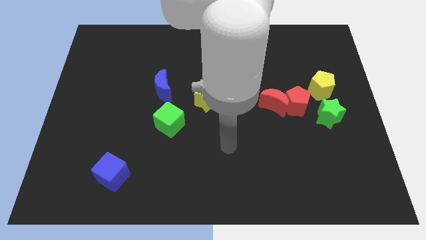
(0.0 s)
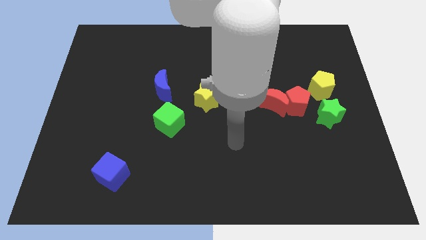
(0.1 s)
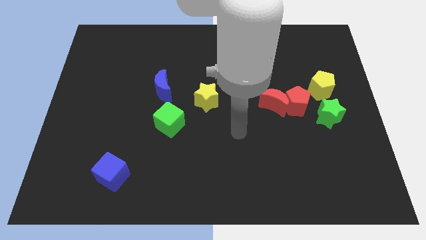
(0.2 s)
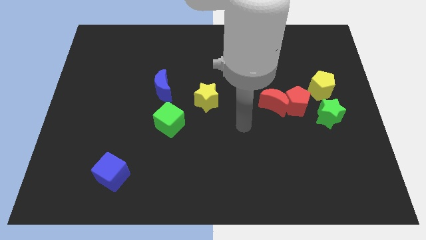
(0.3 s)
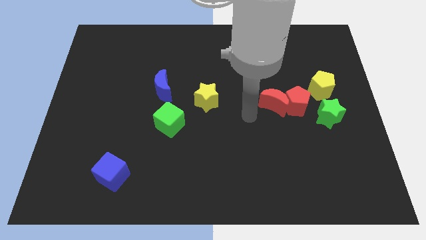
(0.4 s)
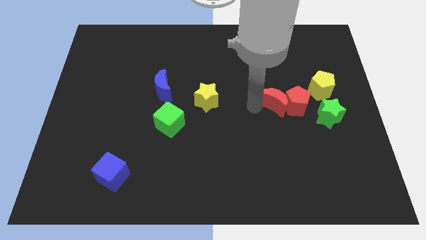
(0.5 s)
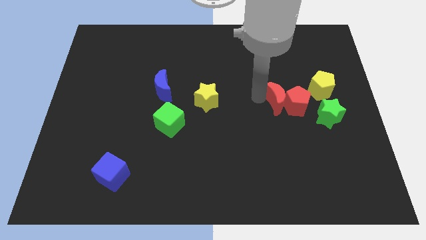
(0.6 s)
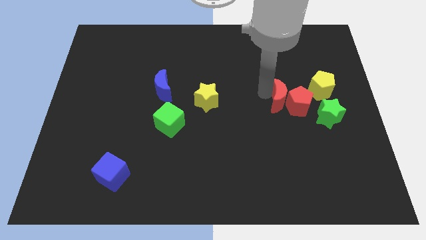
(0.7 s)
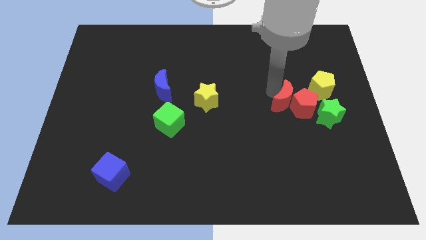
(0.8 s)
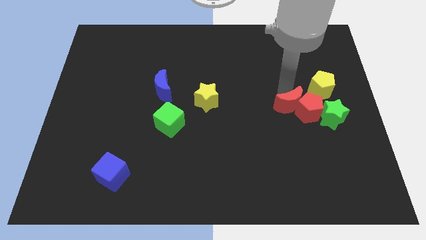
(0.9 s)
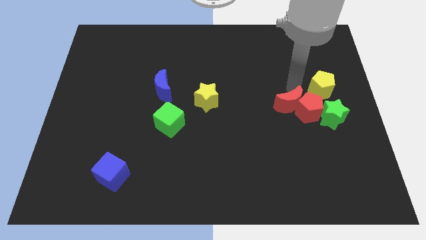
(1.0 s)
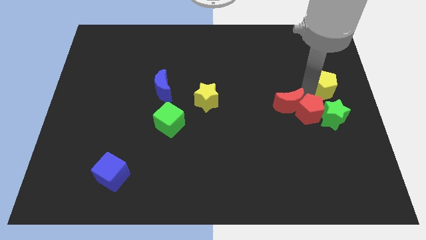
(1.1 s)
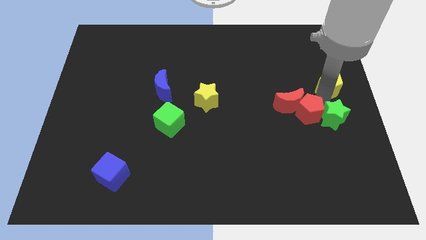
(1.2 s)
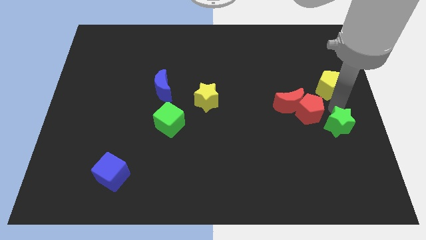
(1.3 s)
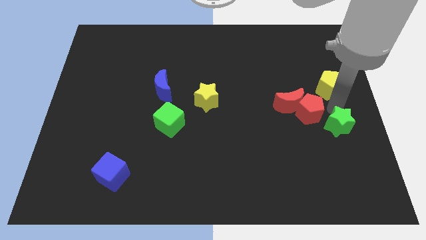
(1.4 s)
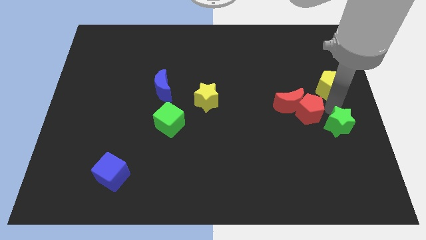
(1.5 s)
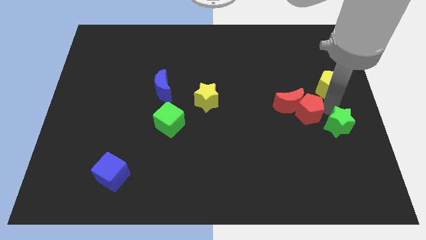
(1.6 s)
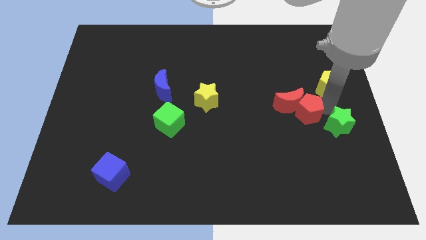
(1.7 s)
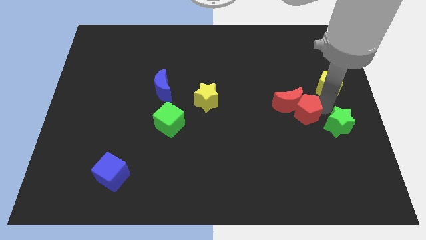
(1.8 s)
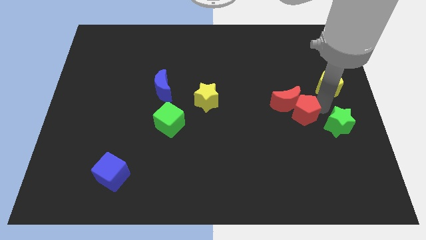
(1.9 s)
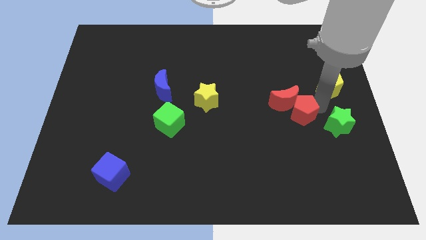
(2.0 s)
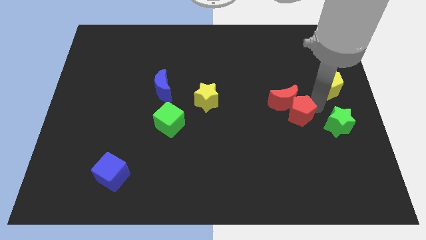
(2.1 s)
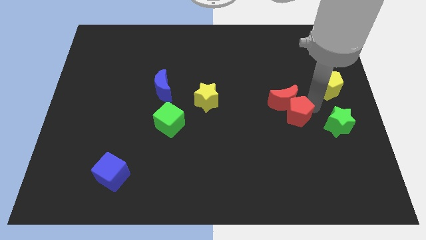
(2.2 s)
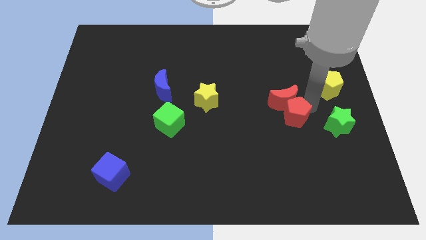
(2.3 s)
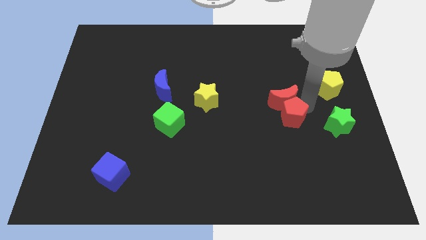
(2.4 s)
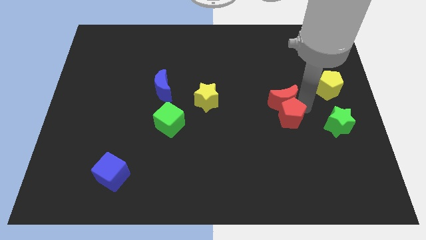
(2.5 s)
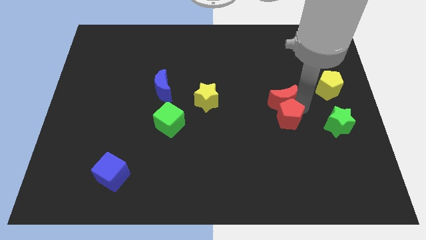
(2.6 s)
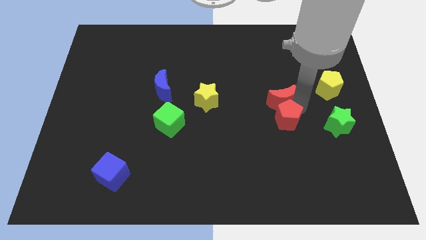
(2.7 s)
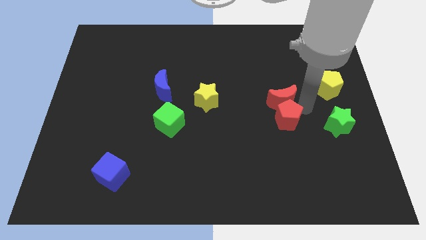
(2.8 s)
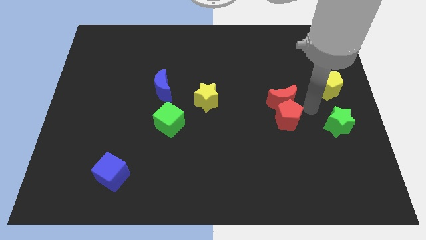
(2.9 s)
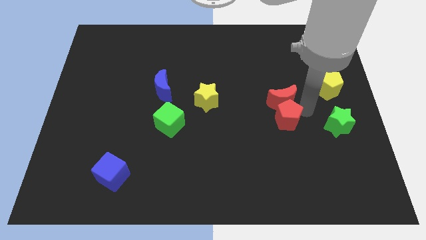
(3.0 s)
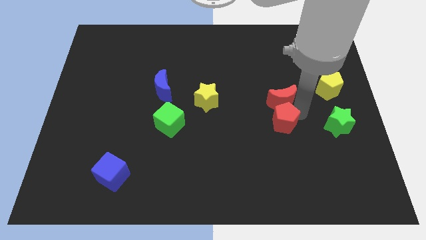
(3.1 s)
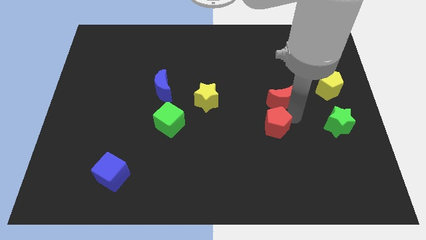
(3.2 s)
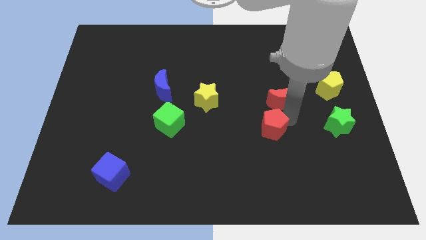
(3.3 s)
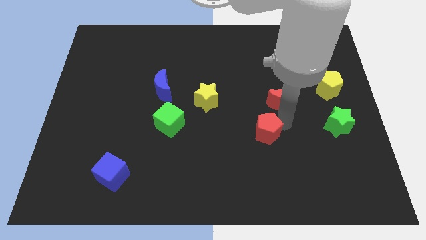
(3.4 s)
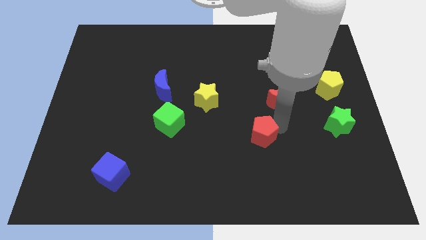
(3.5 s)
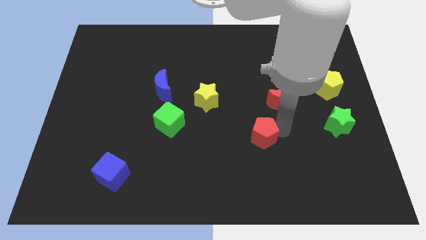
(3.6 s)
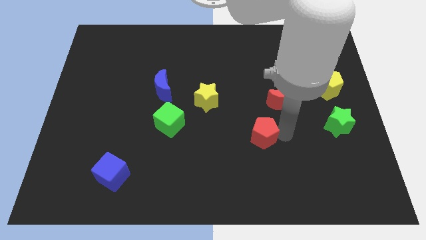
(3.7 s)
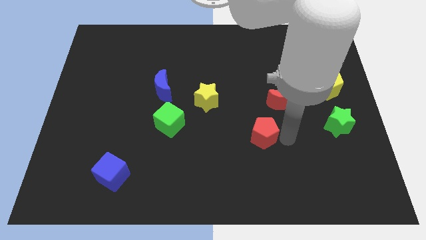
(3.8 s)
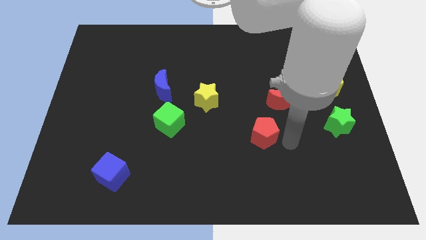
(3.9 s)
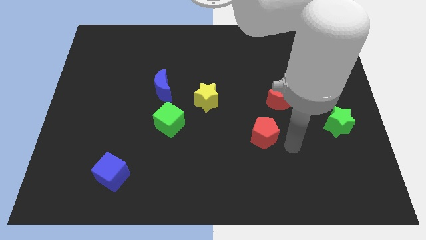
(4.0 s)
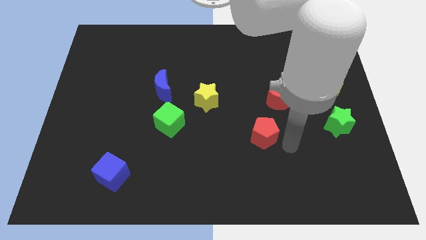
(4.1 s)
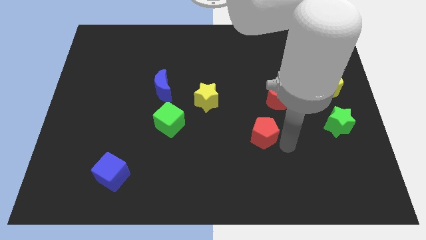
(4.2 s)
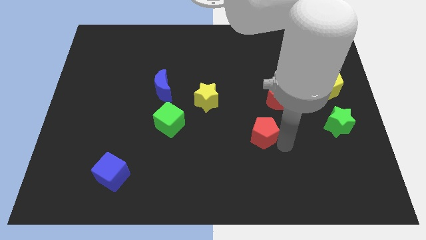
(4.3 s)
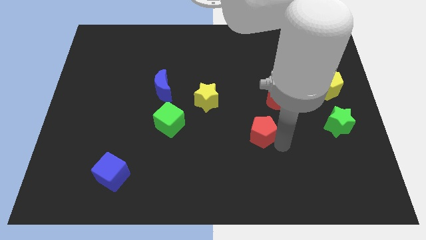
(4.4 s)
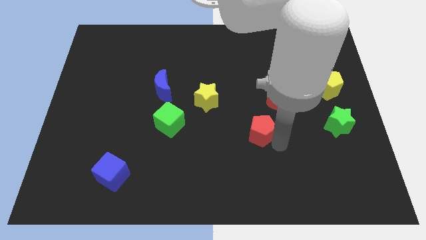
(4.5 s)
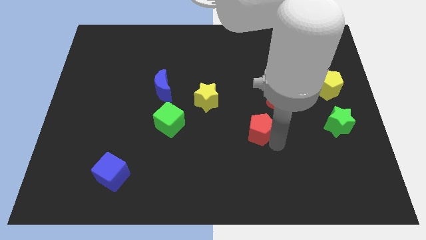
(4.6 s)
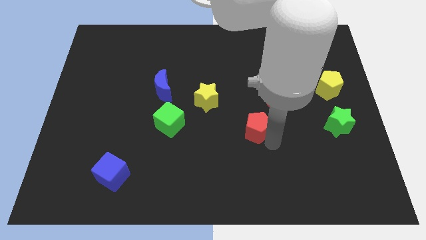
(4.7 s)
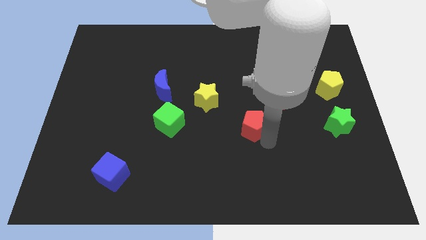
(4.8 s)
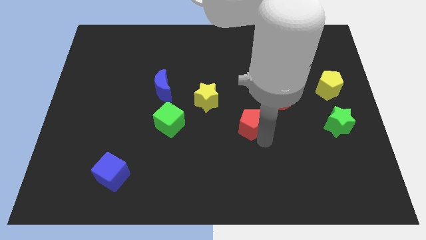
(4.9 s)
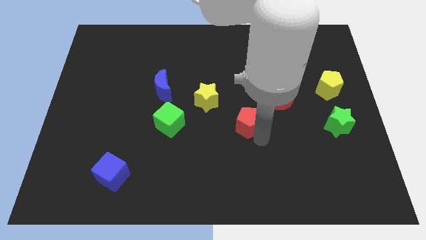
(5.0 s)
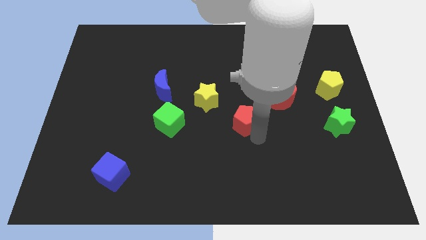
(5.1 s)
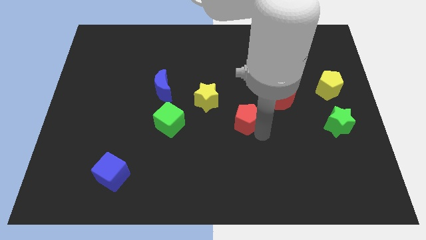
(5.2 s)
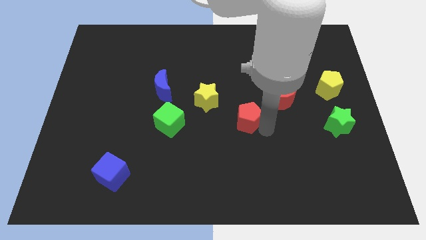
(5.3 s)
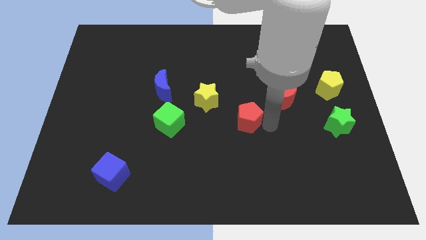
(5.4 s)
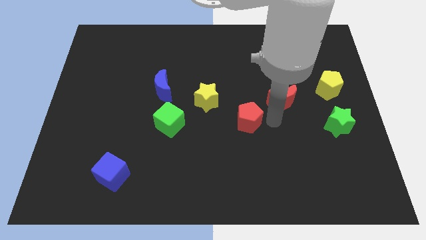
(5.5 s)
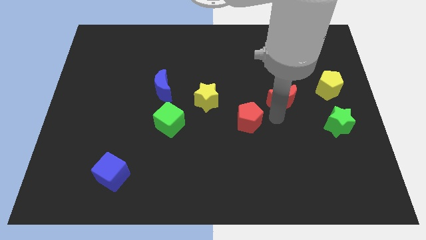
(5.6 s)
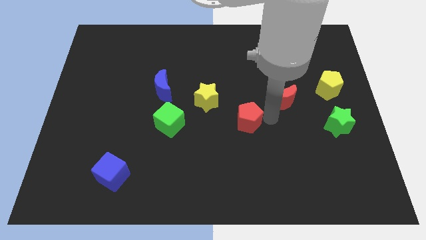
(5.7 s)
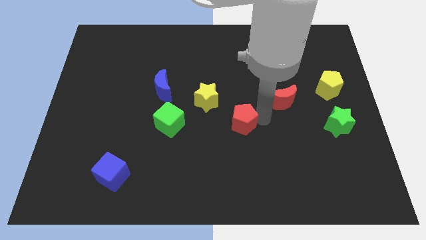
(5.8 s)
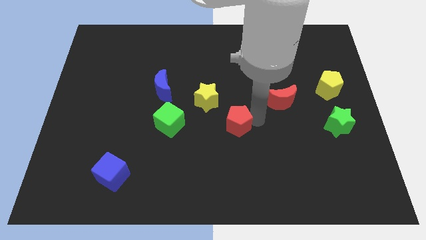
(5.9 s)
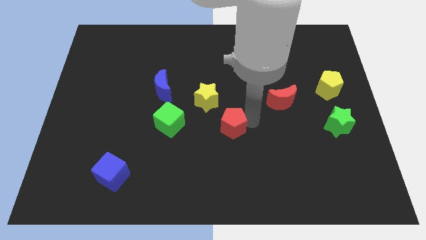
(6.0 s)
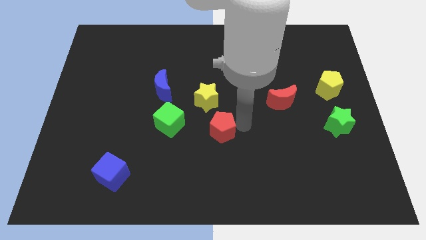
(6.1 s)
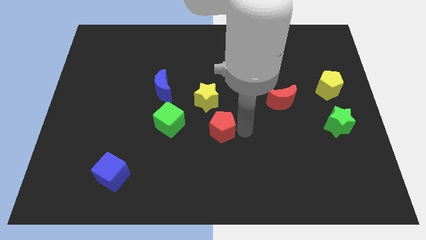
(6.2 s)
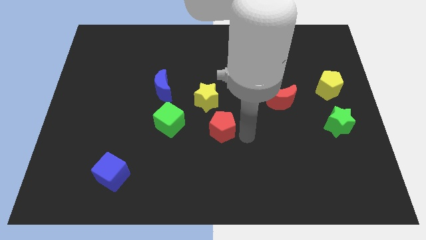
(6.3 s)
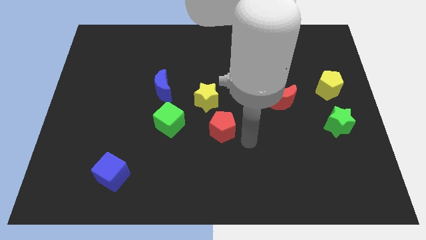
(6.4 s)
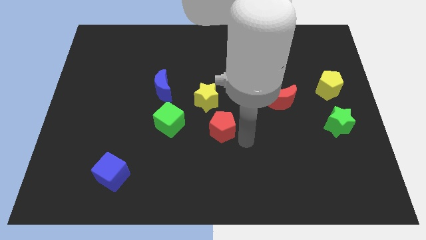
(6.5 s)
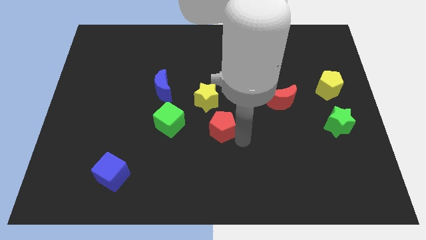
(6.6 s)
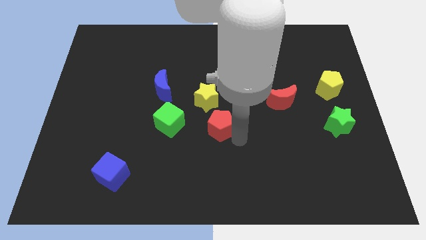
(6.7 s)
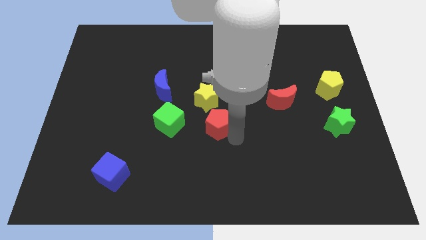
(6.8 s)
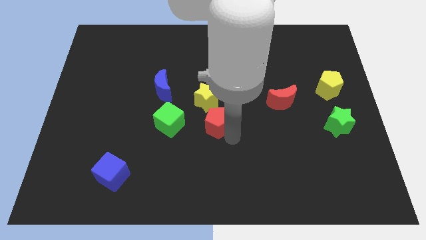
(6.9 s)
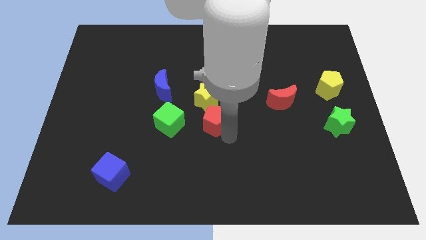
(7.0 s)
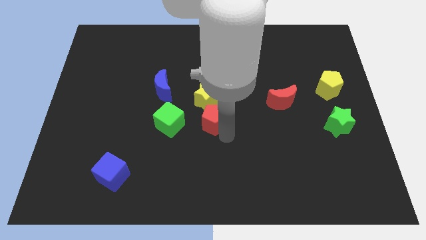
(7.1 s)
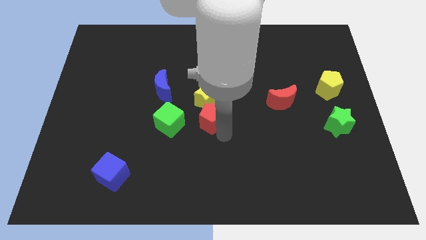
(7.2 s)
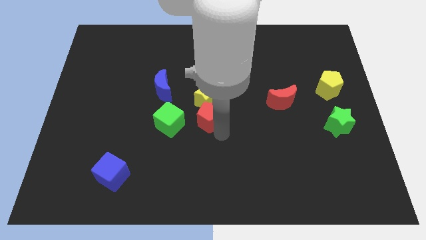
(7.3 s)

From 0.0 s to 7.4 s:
slide the red pentagon to the left

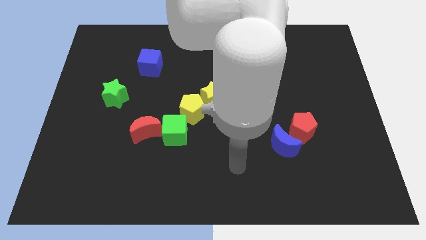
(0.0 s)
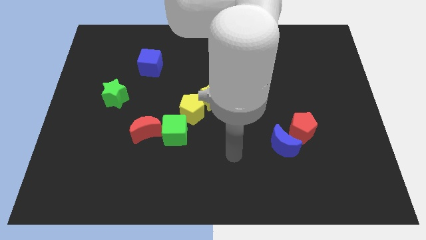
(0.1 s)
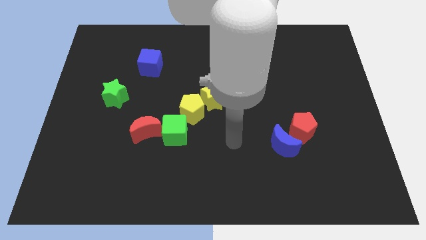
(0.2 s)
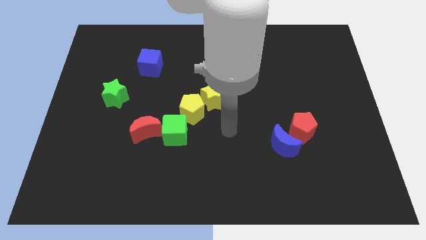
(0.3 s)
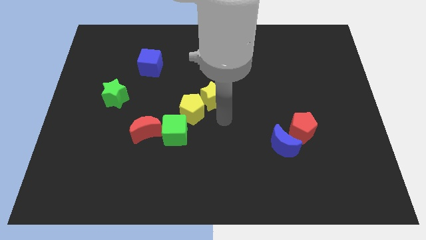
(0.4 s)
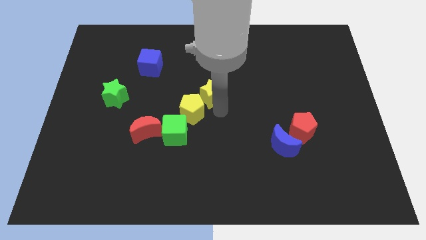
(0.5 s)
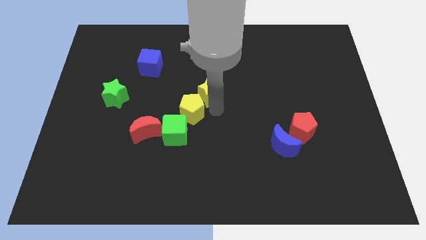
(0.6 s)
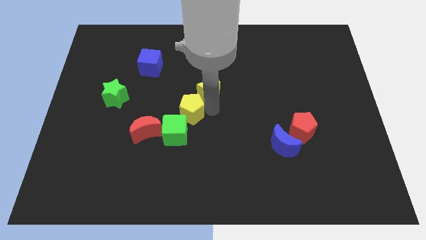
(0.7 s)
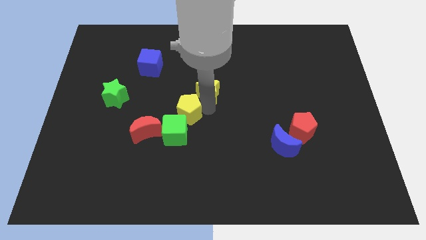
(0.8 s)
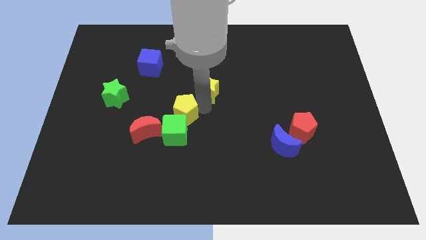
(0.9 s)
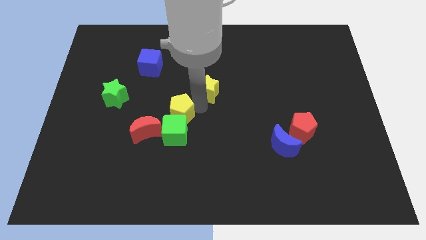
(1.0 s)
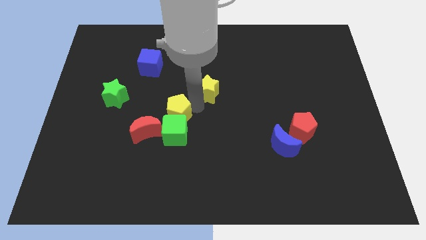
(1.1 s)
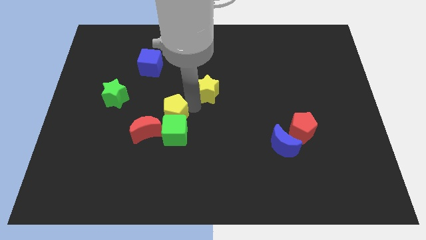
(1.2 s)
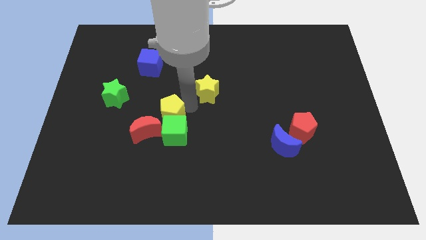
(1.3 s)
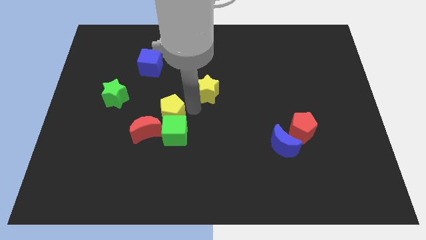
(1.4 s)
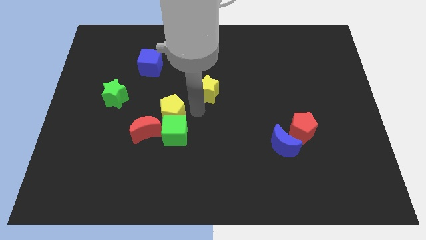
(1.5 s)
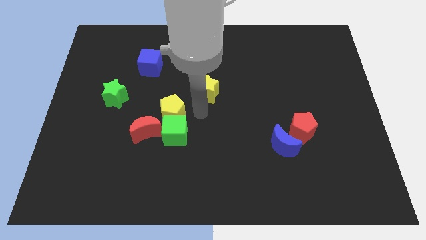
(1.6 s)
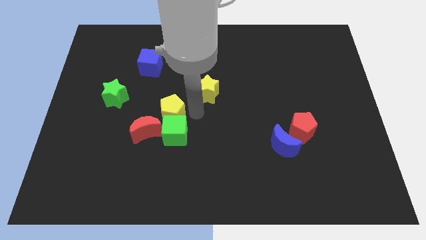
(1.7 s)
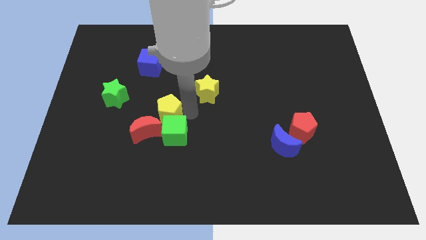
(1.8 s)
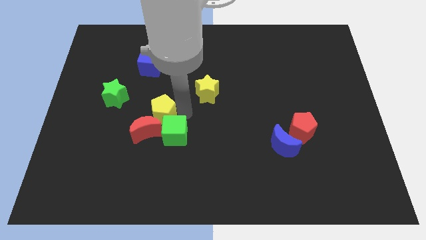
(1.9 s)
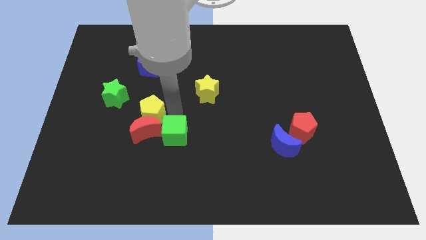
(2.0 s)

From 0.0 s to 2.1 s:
push the yellow pentagon left somewhat
